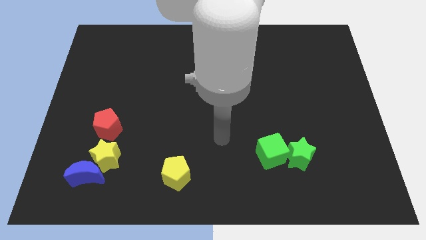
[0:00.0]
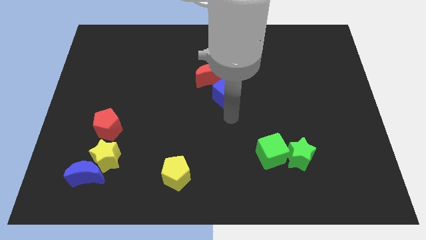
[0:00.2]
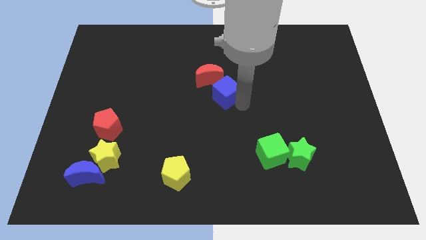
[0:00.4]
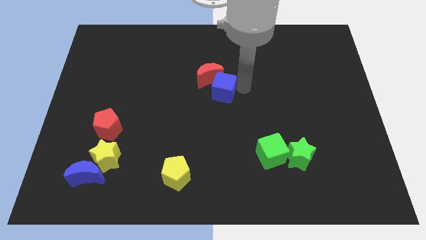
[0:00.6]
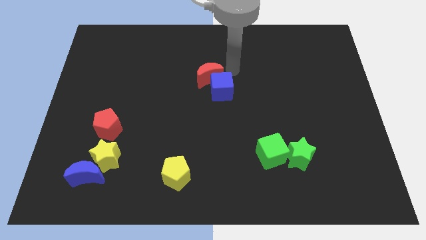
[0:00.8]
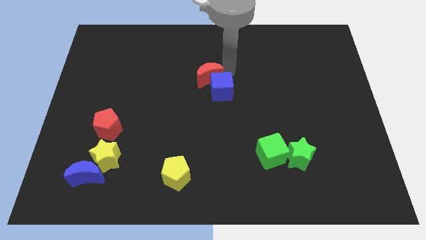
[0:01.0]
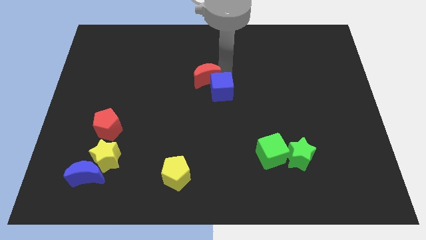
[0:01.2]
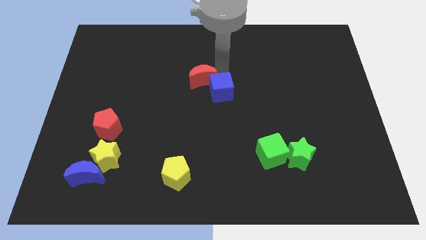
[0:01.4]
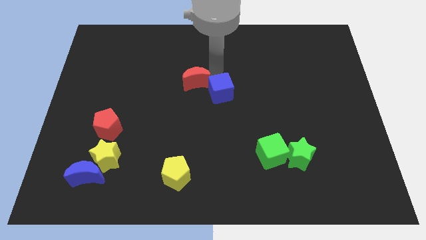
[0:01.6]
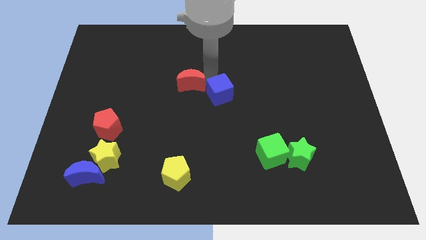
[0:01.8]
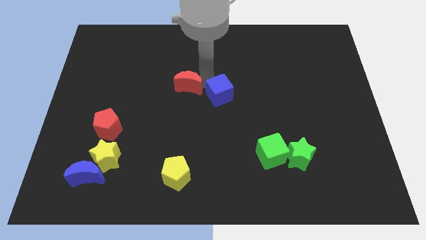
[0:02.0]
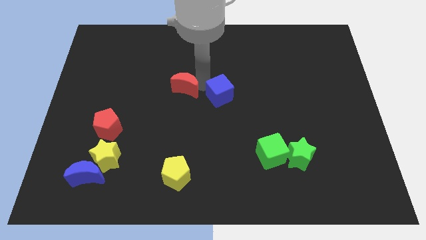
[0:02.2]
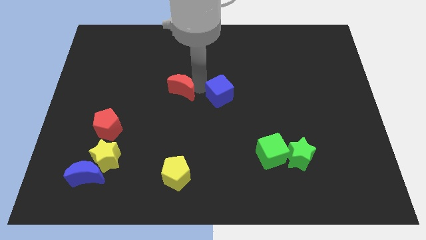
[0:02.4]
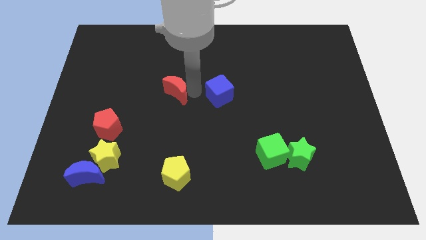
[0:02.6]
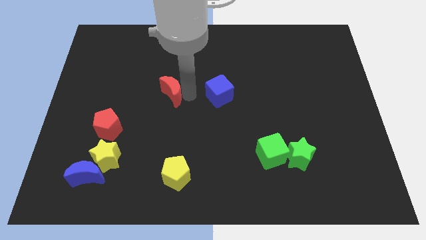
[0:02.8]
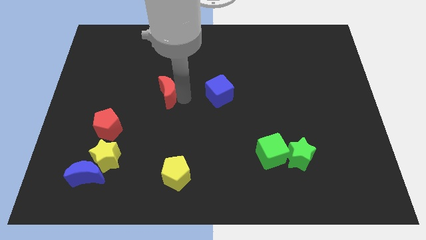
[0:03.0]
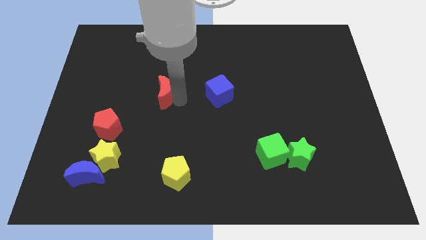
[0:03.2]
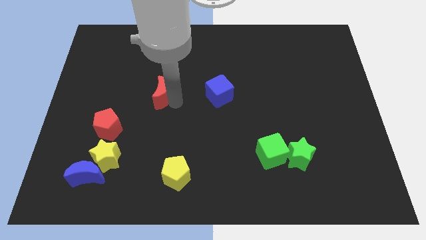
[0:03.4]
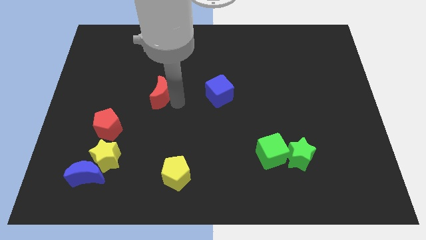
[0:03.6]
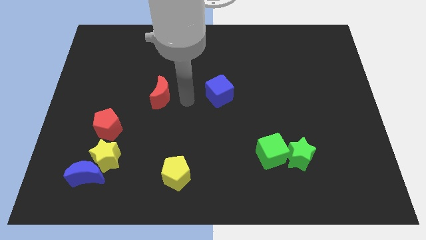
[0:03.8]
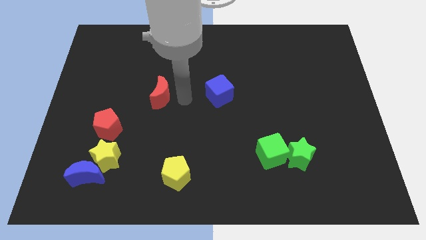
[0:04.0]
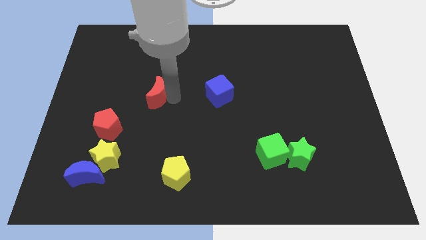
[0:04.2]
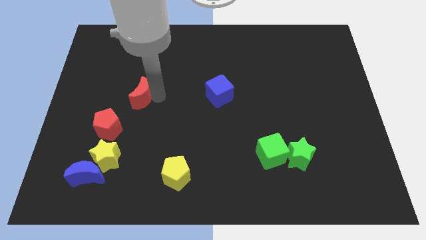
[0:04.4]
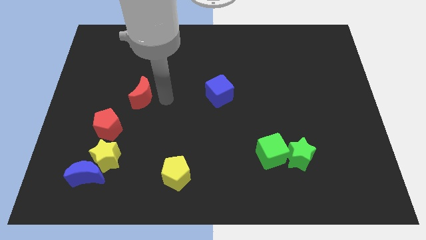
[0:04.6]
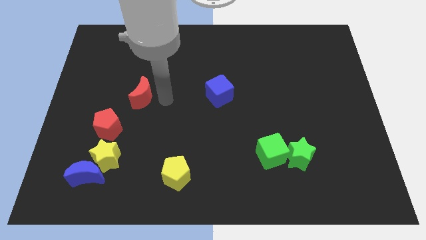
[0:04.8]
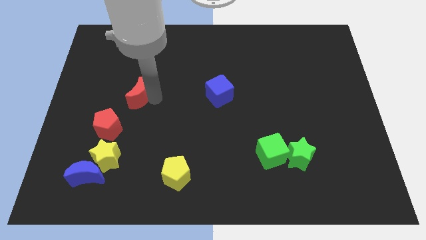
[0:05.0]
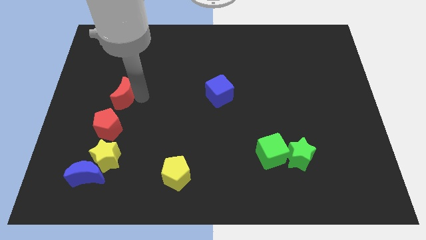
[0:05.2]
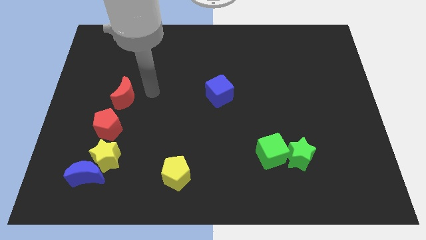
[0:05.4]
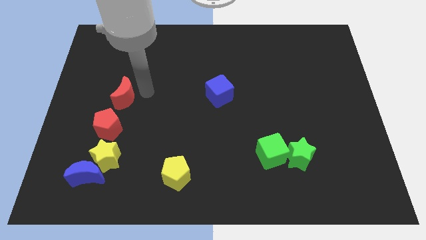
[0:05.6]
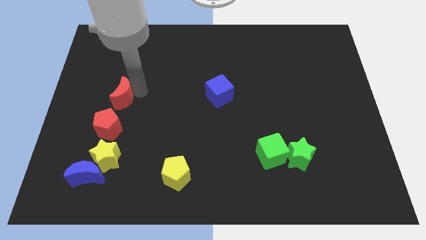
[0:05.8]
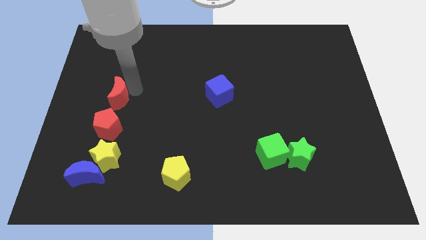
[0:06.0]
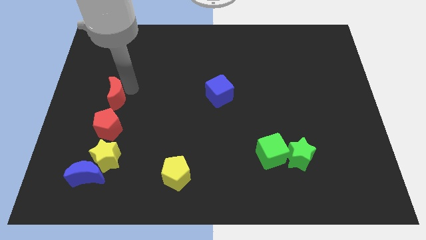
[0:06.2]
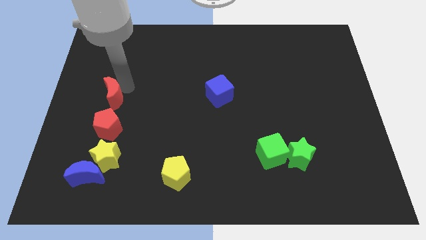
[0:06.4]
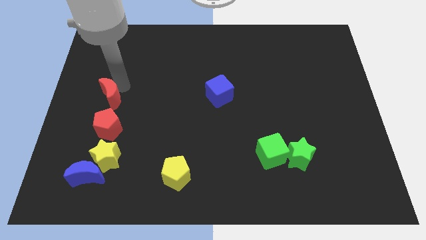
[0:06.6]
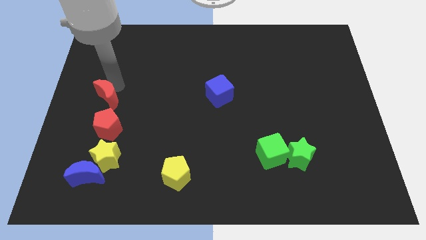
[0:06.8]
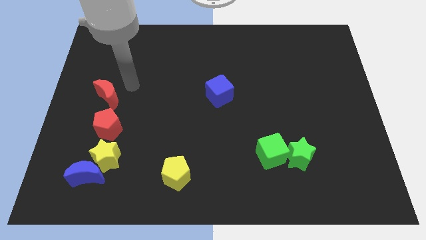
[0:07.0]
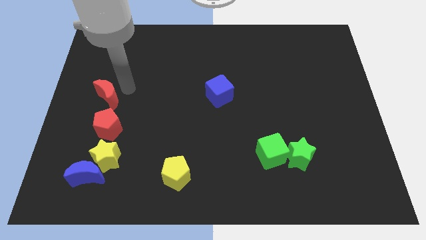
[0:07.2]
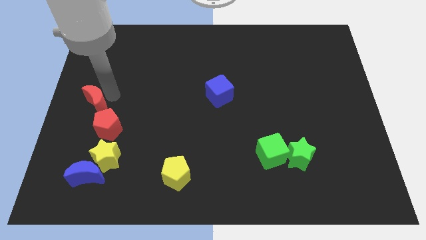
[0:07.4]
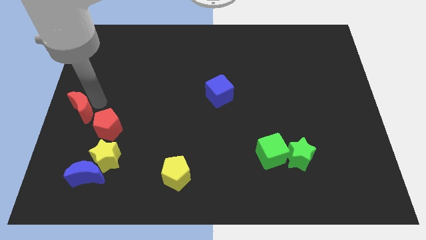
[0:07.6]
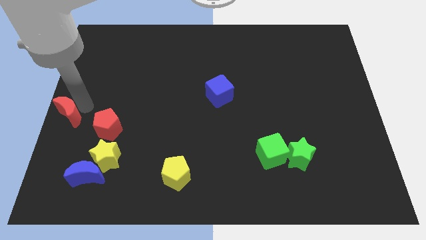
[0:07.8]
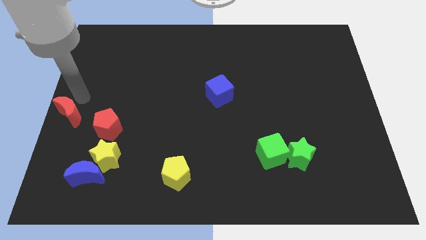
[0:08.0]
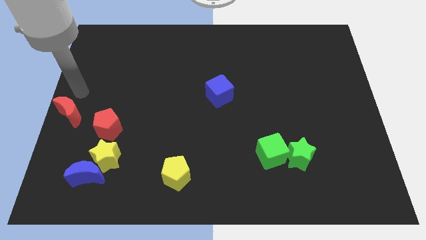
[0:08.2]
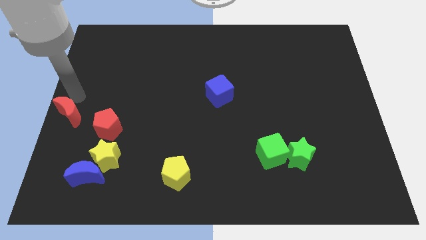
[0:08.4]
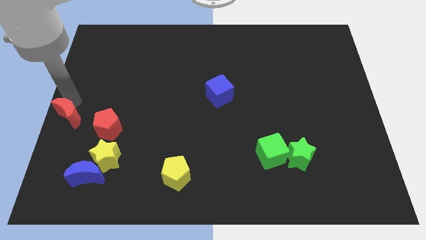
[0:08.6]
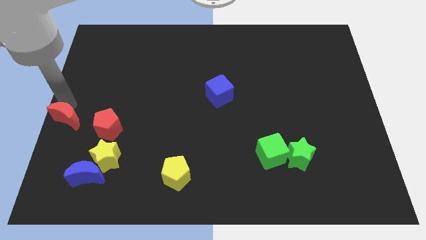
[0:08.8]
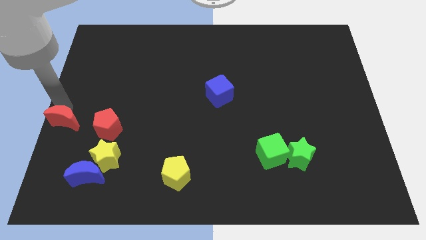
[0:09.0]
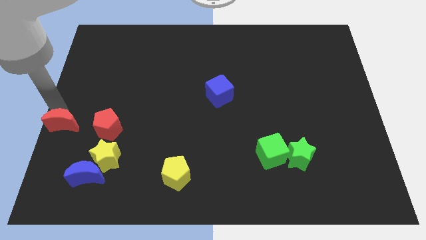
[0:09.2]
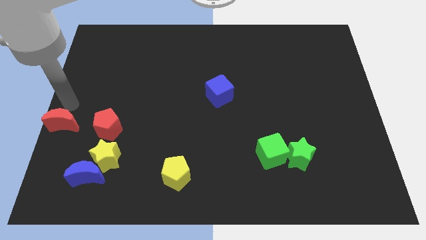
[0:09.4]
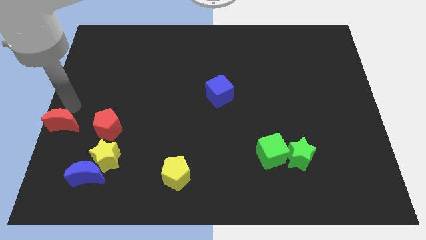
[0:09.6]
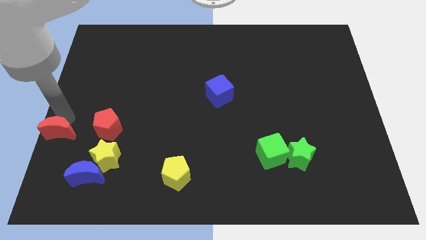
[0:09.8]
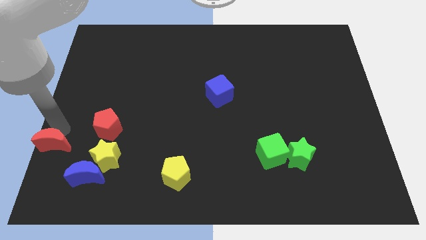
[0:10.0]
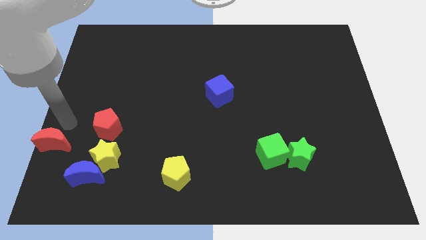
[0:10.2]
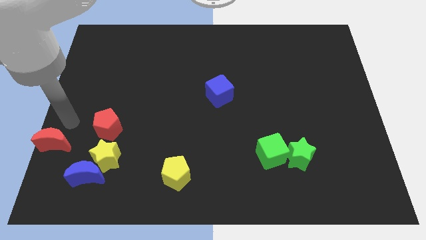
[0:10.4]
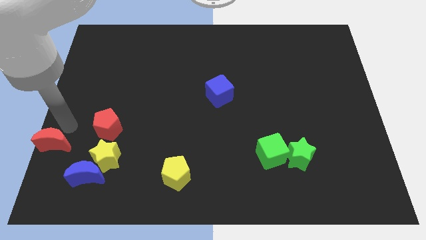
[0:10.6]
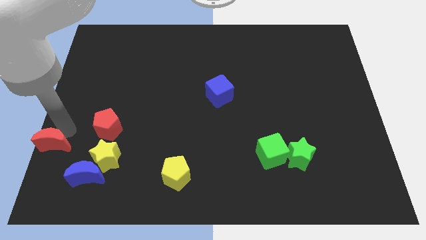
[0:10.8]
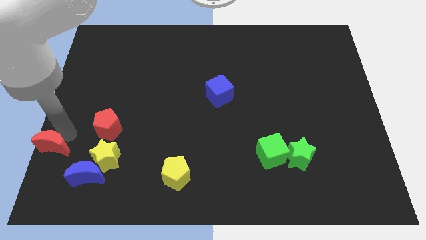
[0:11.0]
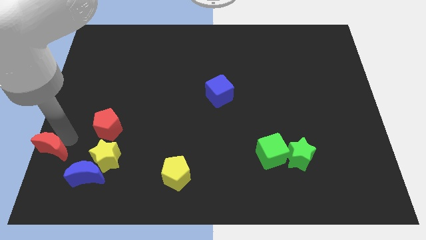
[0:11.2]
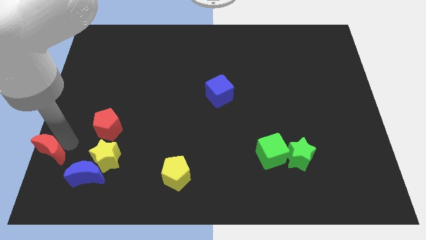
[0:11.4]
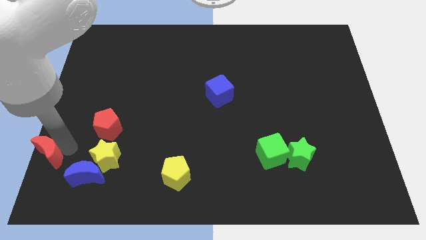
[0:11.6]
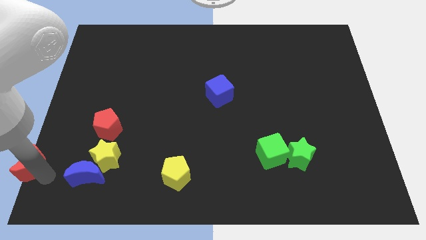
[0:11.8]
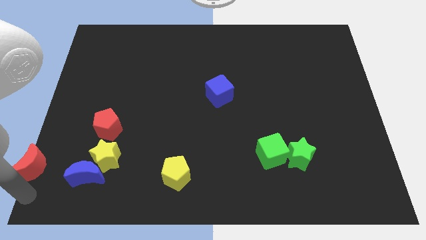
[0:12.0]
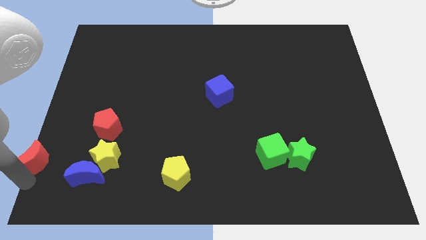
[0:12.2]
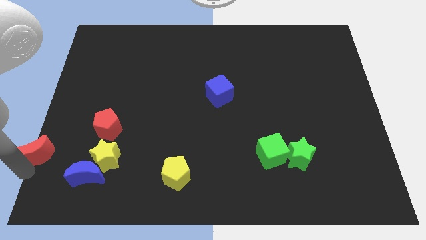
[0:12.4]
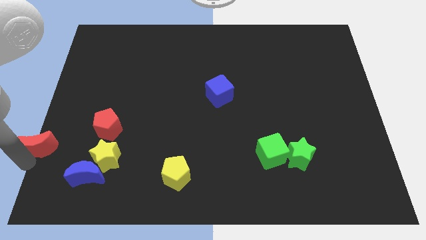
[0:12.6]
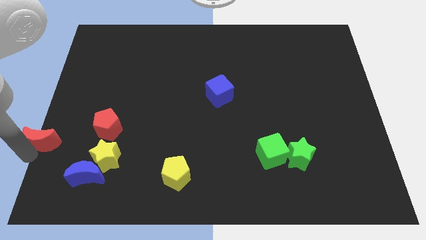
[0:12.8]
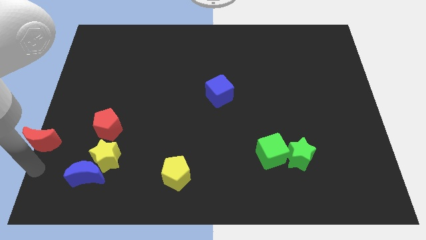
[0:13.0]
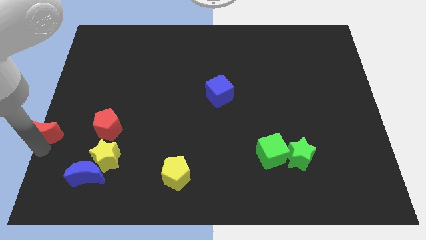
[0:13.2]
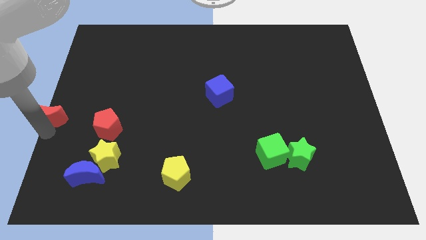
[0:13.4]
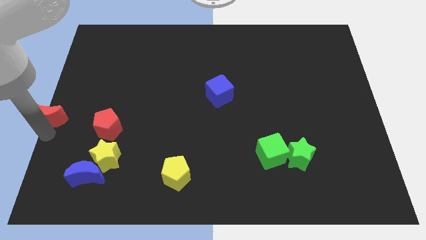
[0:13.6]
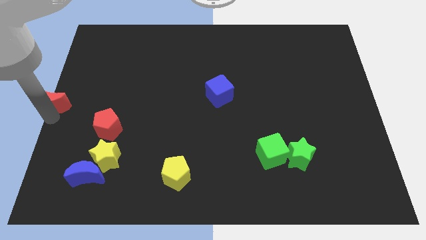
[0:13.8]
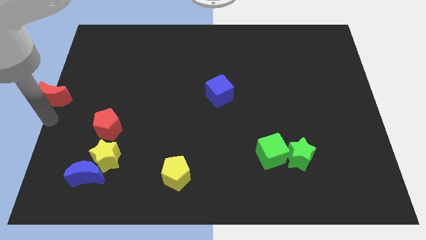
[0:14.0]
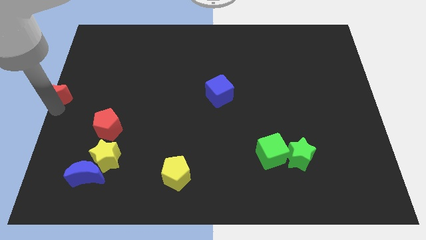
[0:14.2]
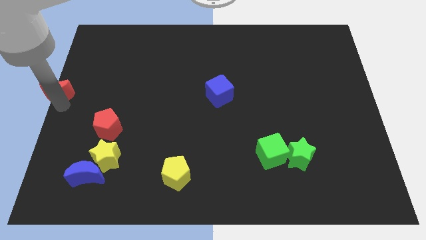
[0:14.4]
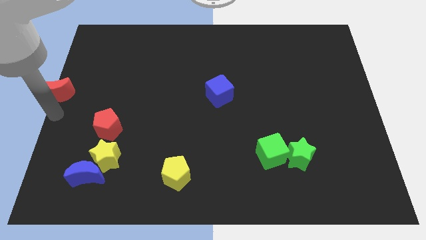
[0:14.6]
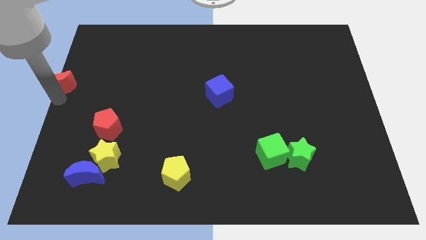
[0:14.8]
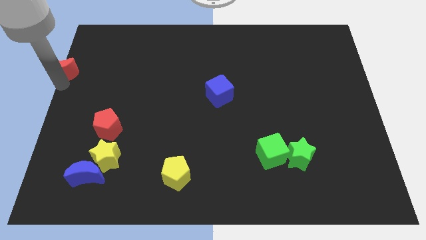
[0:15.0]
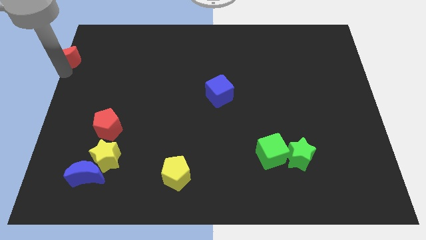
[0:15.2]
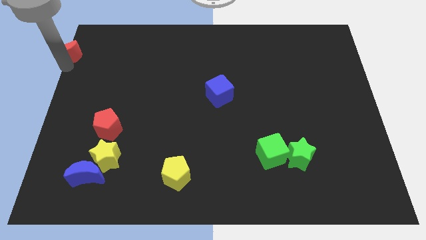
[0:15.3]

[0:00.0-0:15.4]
push the red moon to the top left of the board
